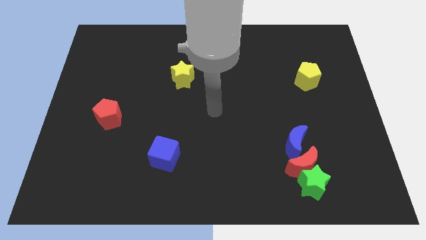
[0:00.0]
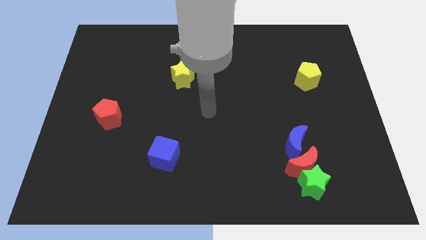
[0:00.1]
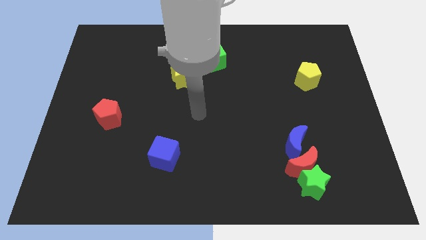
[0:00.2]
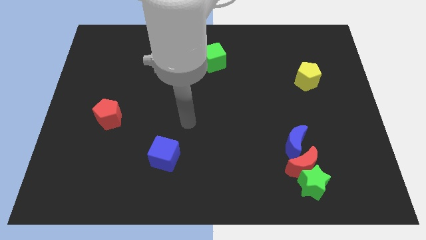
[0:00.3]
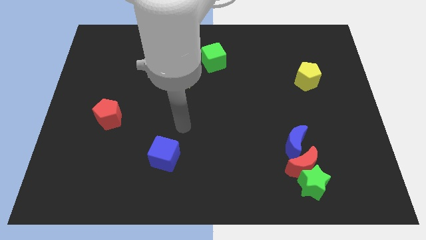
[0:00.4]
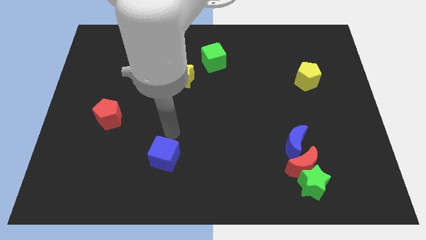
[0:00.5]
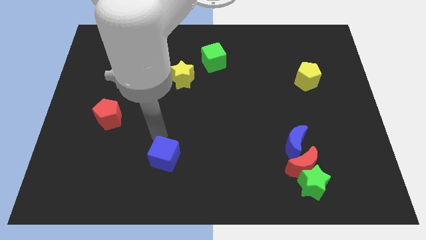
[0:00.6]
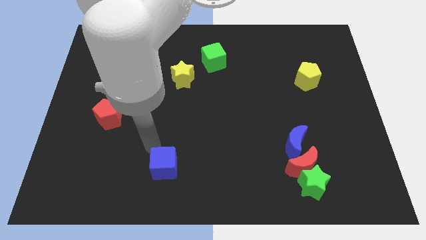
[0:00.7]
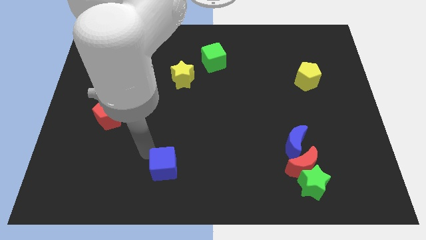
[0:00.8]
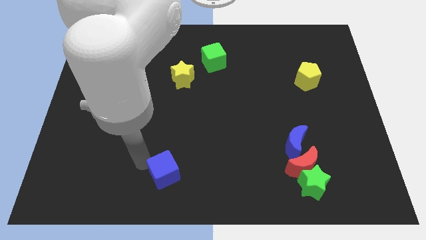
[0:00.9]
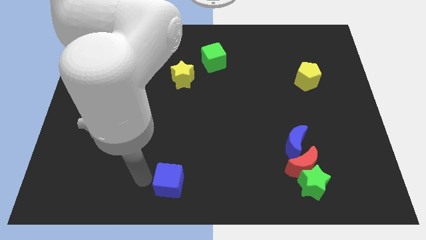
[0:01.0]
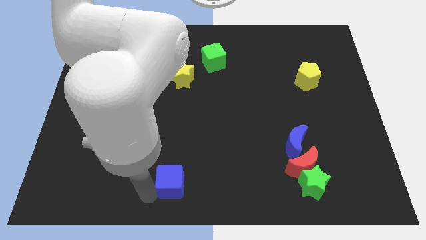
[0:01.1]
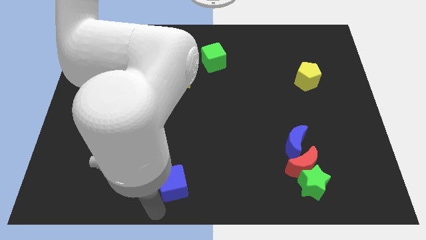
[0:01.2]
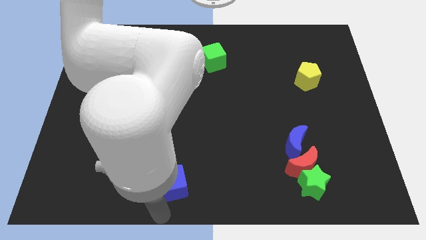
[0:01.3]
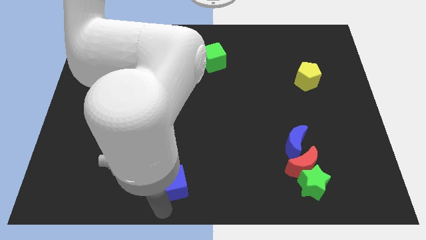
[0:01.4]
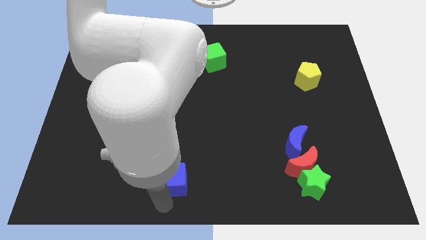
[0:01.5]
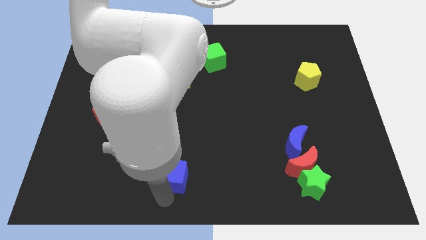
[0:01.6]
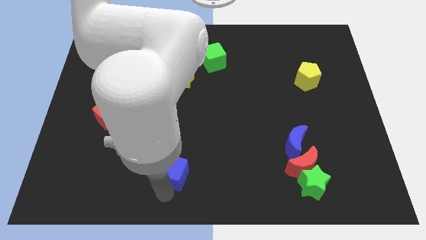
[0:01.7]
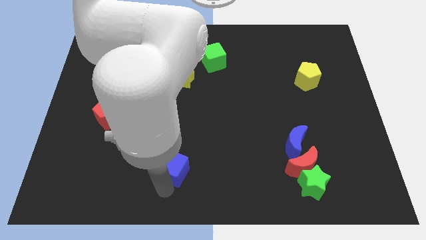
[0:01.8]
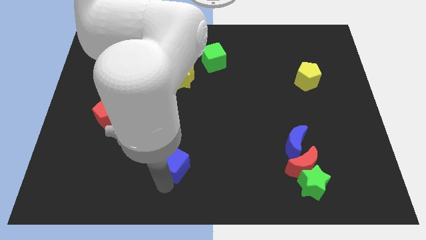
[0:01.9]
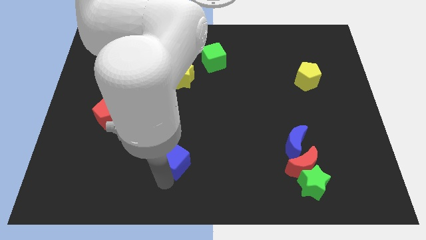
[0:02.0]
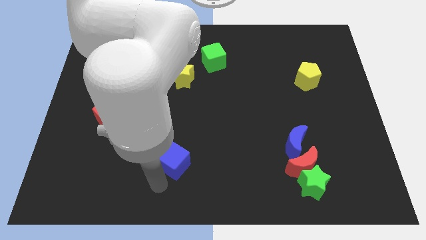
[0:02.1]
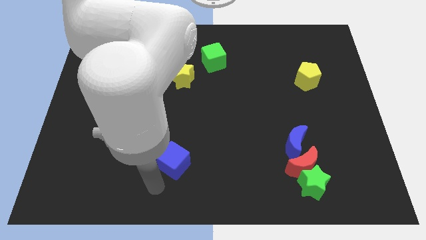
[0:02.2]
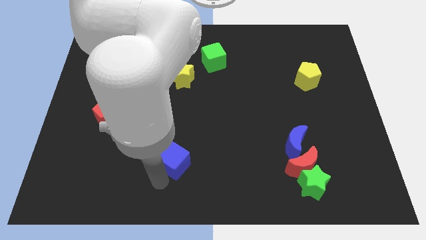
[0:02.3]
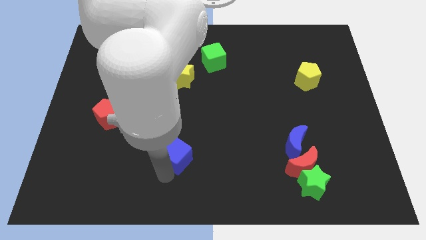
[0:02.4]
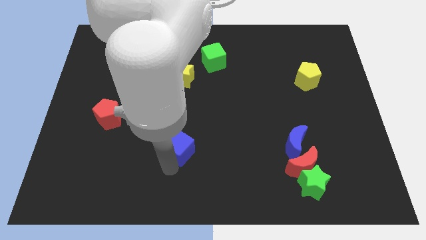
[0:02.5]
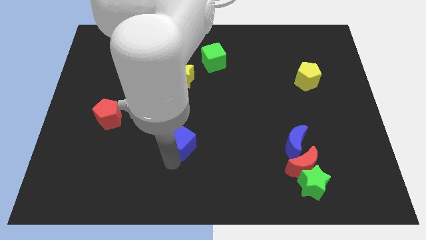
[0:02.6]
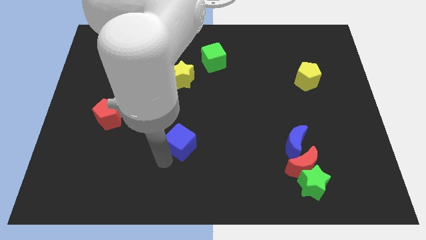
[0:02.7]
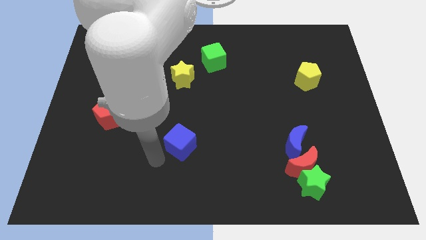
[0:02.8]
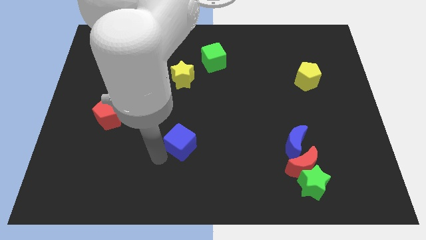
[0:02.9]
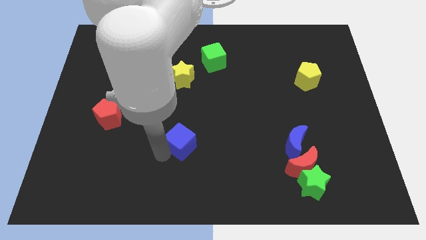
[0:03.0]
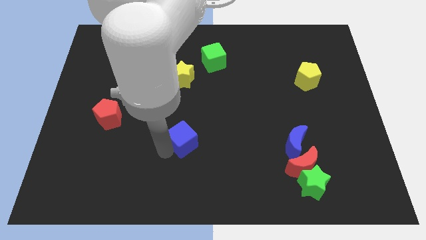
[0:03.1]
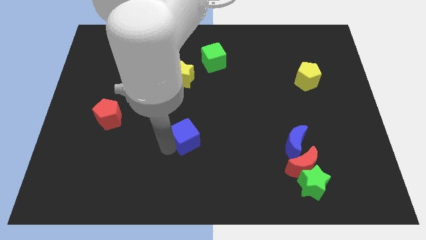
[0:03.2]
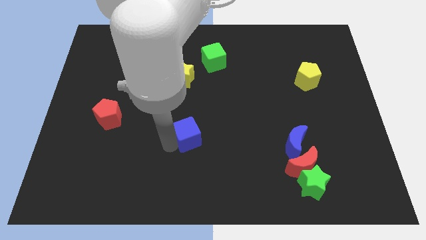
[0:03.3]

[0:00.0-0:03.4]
move the blue cube a little upwards and to the right diagonally

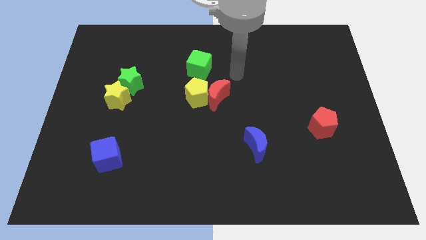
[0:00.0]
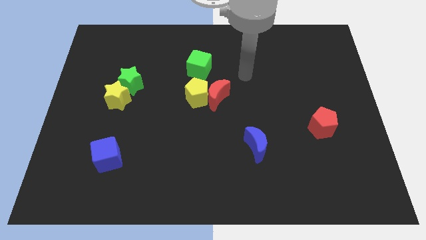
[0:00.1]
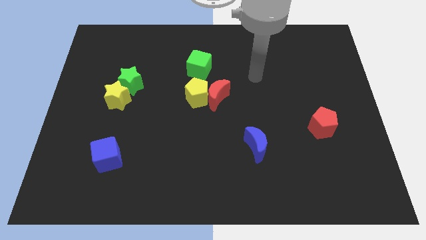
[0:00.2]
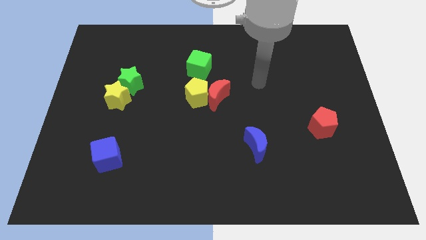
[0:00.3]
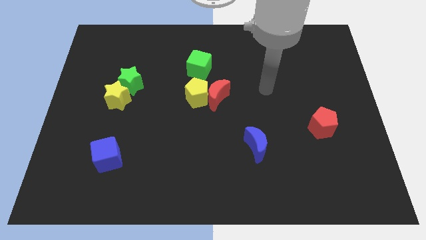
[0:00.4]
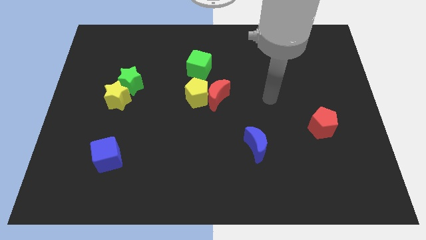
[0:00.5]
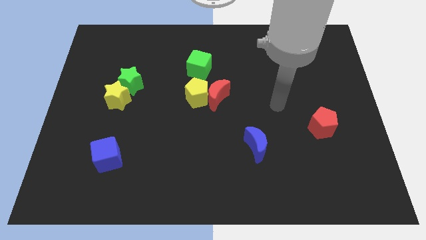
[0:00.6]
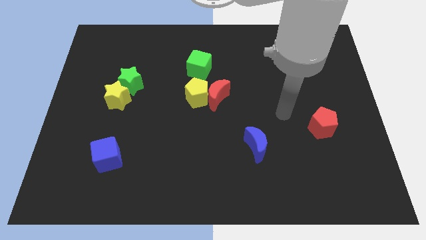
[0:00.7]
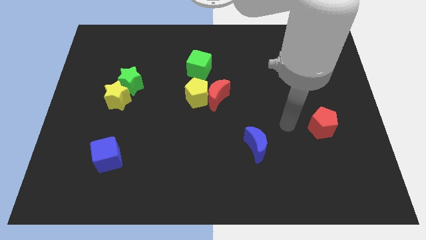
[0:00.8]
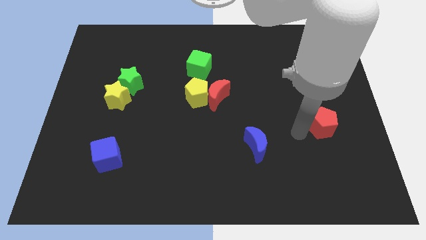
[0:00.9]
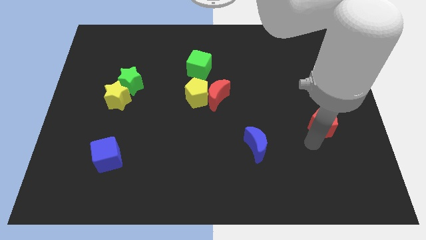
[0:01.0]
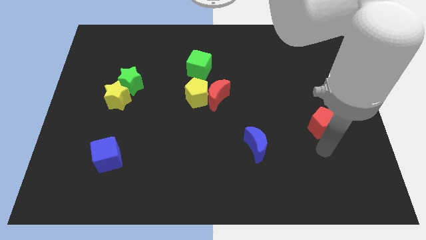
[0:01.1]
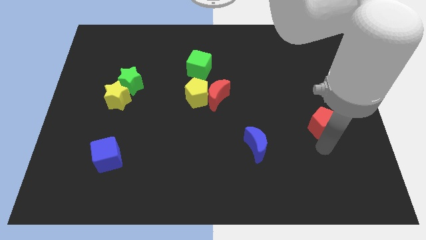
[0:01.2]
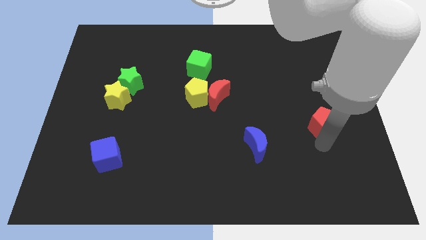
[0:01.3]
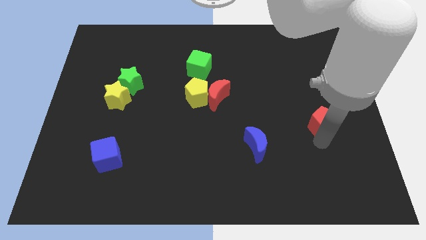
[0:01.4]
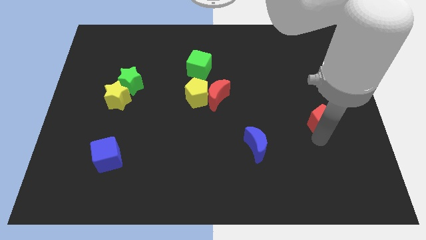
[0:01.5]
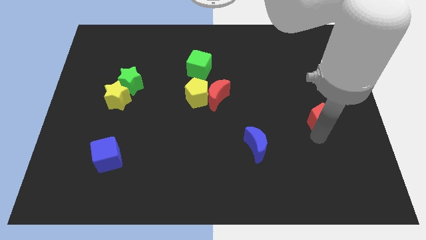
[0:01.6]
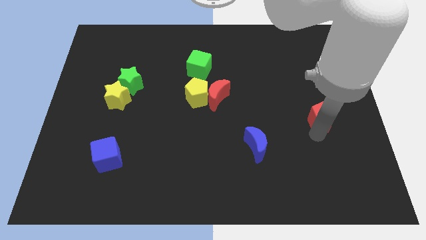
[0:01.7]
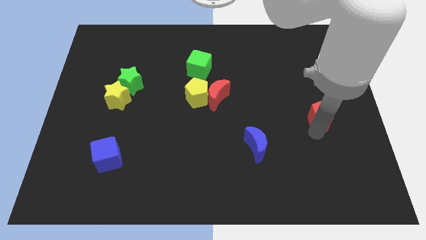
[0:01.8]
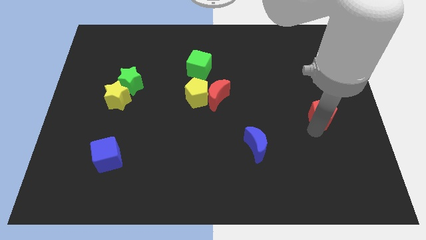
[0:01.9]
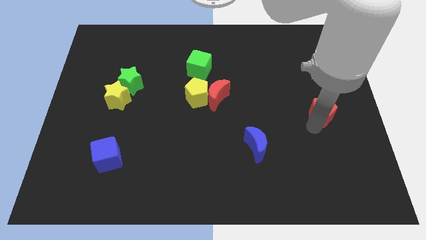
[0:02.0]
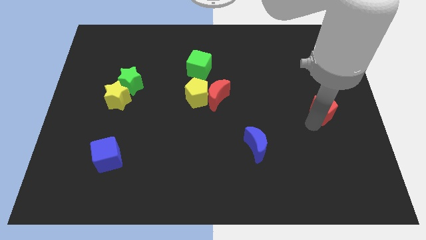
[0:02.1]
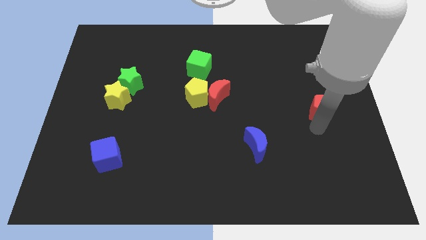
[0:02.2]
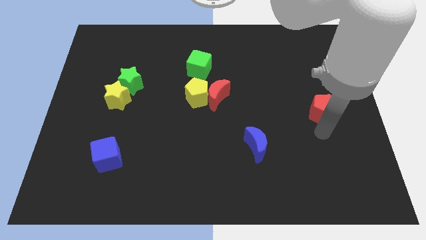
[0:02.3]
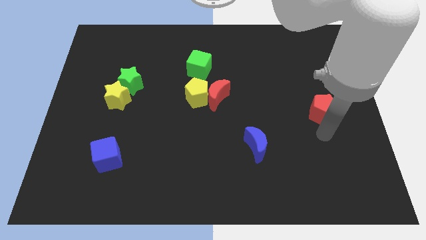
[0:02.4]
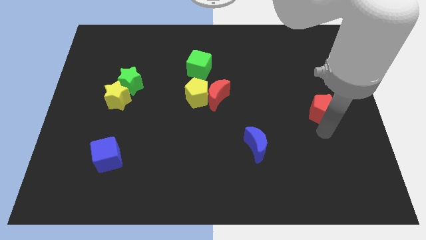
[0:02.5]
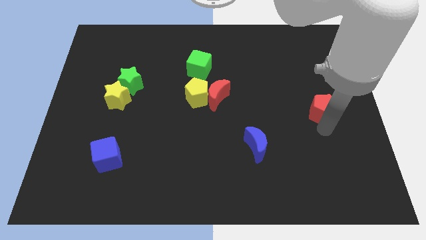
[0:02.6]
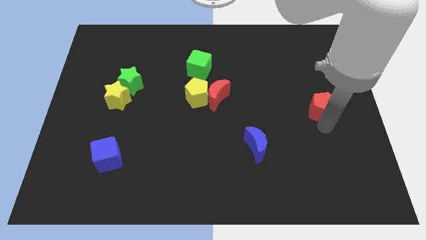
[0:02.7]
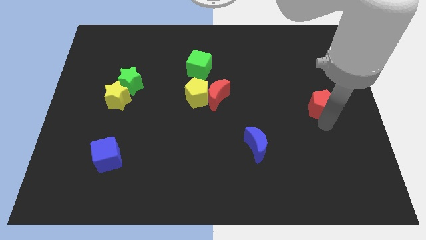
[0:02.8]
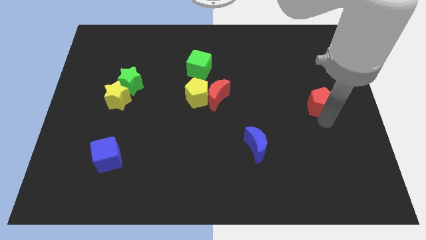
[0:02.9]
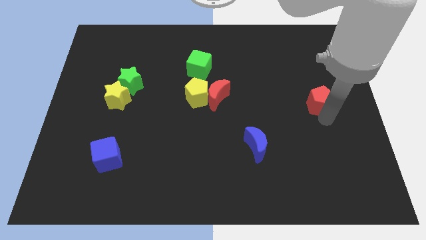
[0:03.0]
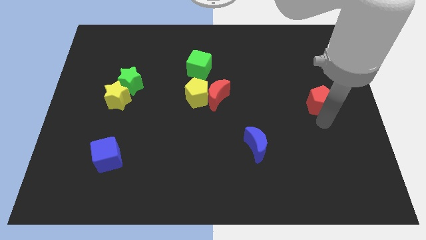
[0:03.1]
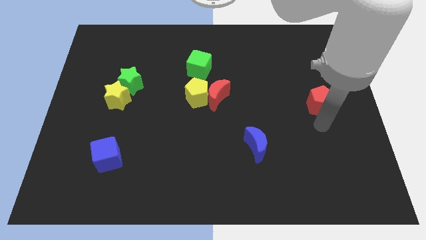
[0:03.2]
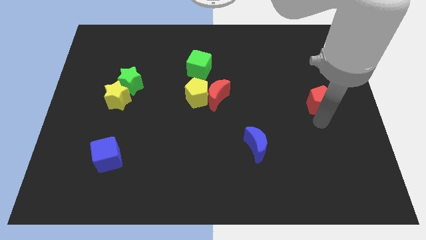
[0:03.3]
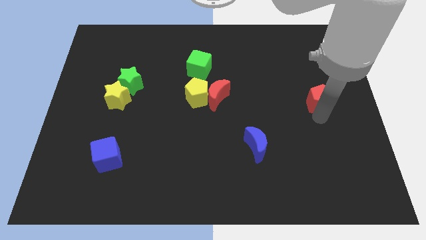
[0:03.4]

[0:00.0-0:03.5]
slide the red pentagon a little bit upwards

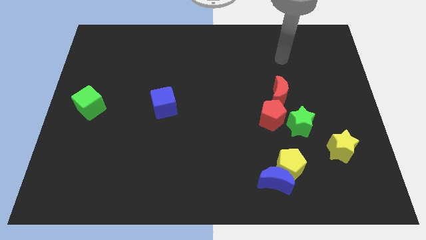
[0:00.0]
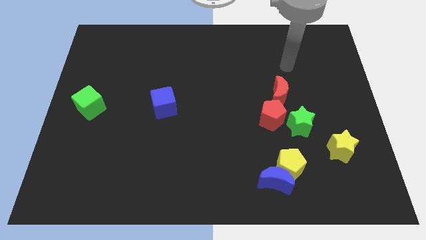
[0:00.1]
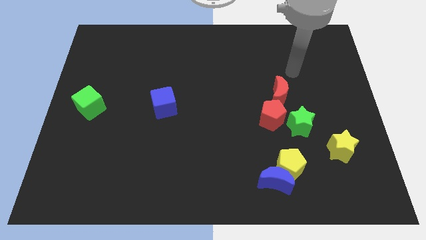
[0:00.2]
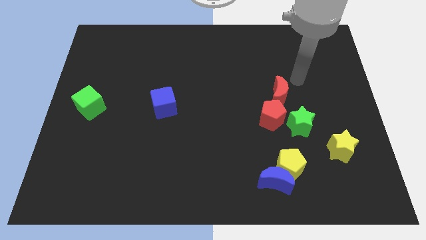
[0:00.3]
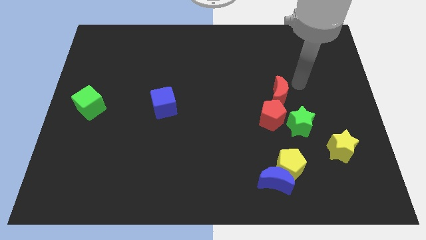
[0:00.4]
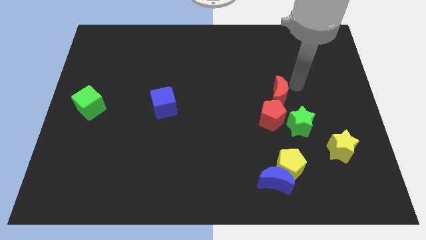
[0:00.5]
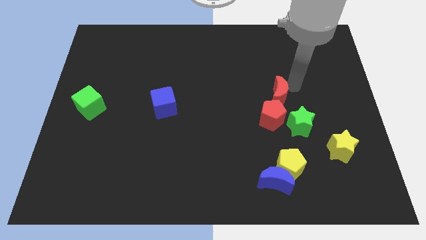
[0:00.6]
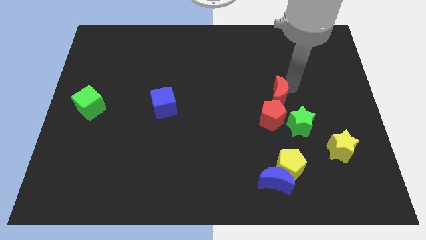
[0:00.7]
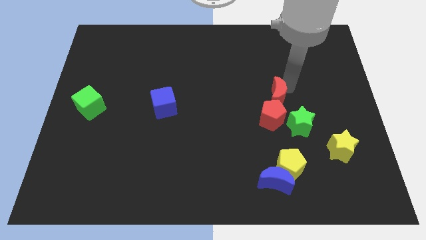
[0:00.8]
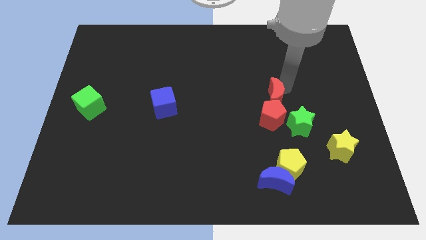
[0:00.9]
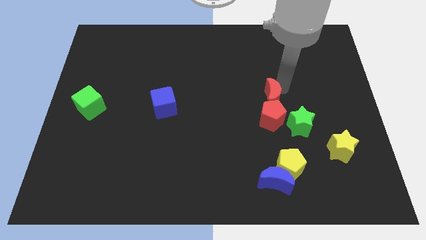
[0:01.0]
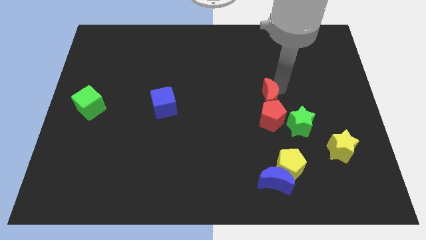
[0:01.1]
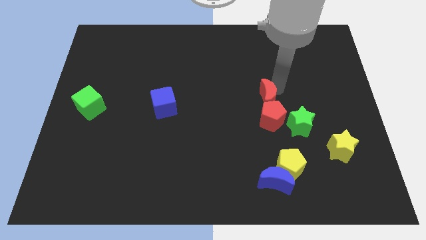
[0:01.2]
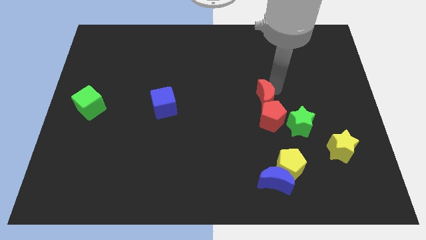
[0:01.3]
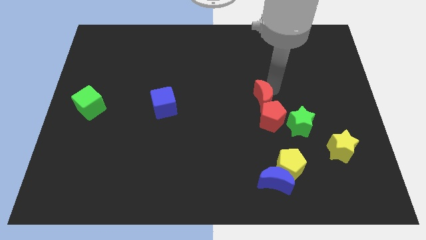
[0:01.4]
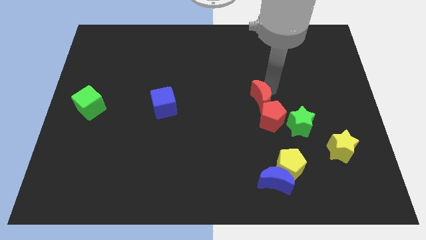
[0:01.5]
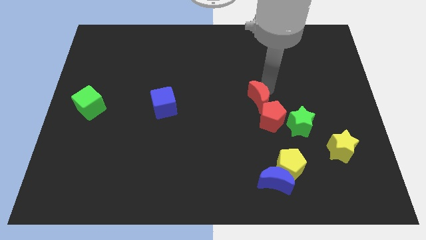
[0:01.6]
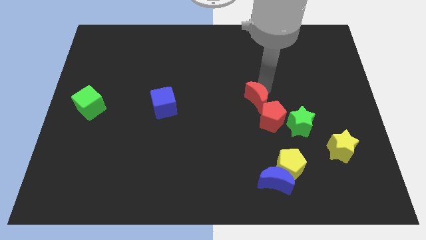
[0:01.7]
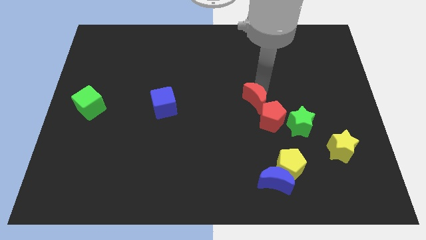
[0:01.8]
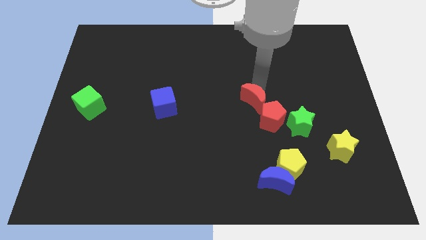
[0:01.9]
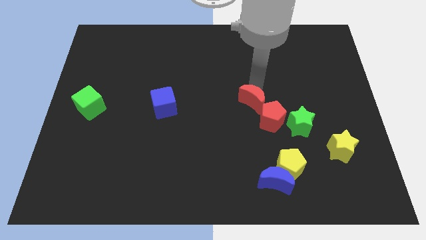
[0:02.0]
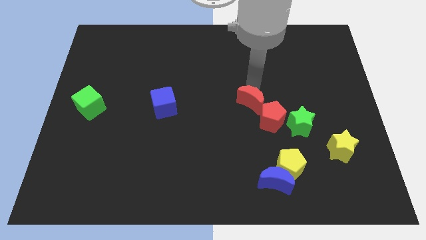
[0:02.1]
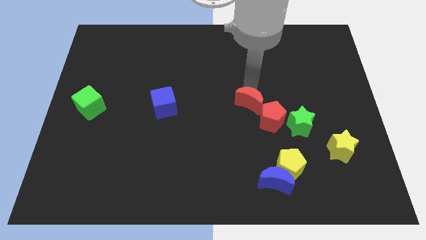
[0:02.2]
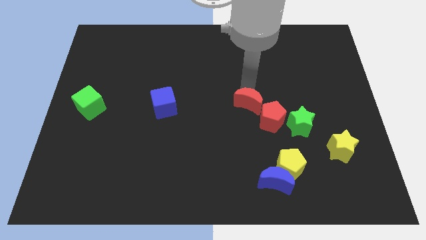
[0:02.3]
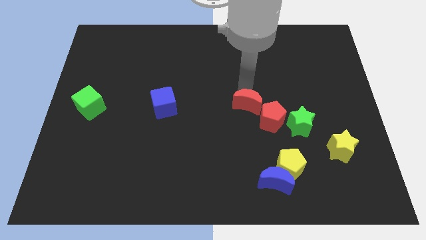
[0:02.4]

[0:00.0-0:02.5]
push the red moon downwards and to the left a bit
